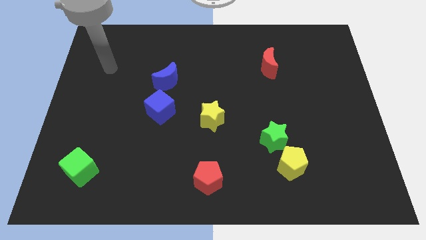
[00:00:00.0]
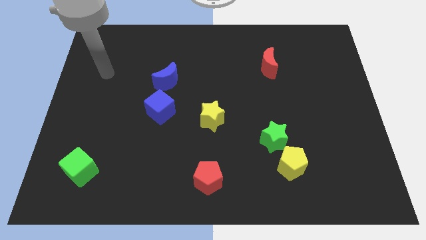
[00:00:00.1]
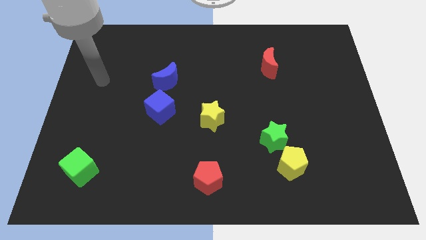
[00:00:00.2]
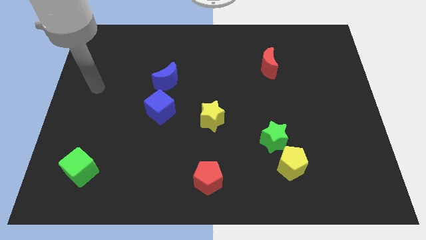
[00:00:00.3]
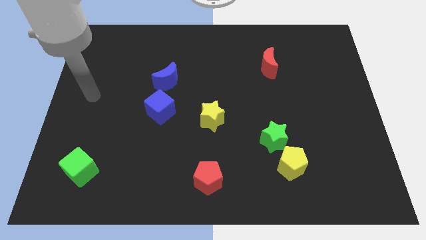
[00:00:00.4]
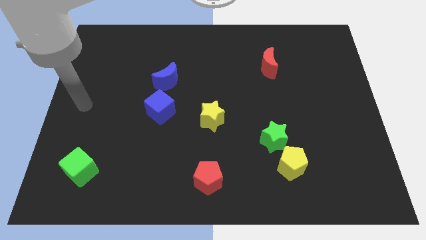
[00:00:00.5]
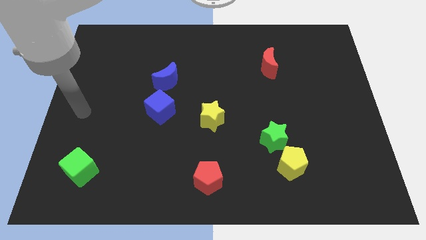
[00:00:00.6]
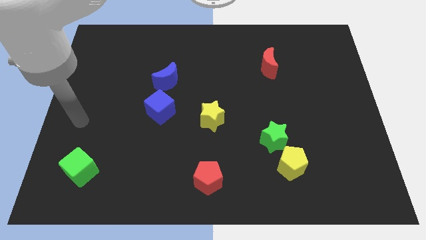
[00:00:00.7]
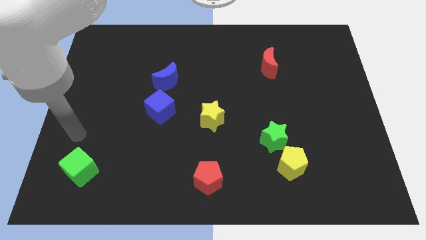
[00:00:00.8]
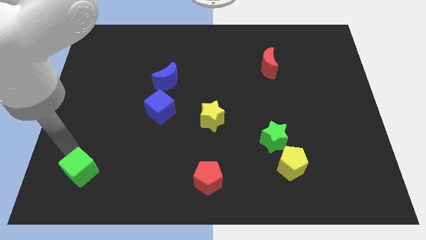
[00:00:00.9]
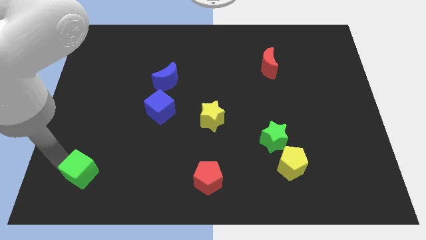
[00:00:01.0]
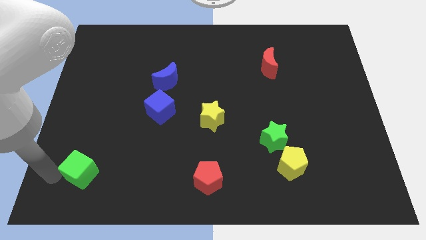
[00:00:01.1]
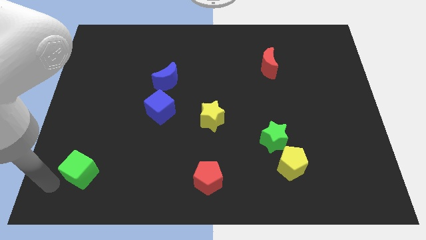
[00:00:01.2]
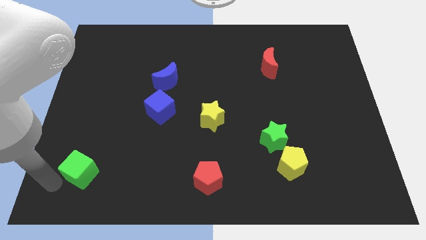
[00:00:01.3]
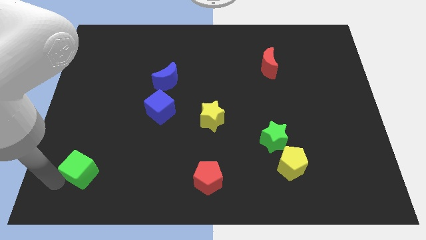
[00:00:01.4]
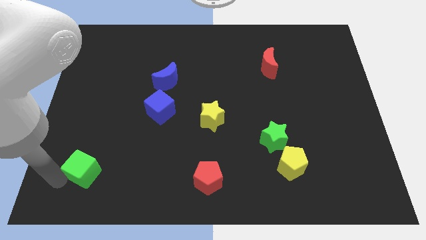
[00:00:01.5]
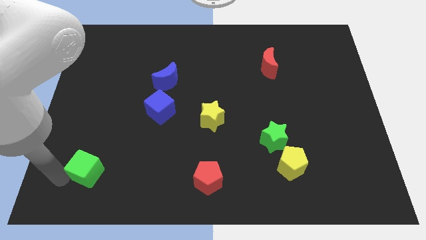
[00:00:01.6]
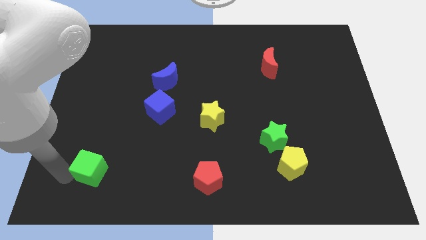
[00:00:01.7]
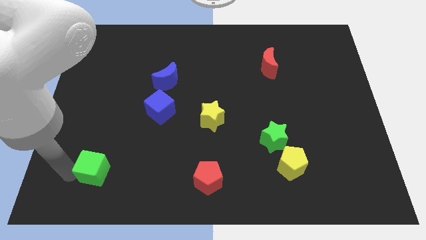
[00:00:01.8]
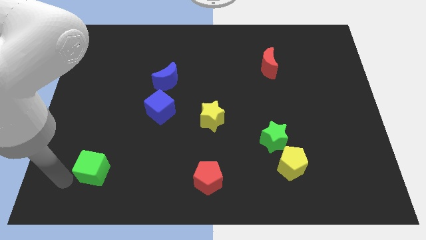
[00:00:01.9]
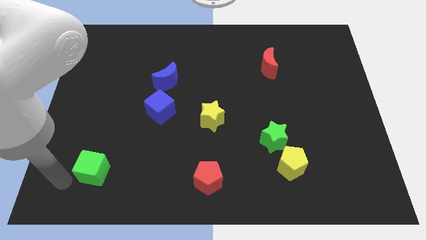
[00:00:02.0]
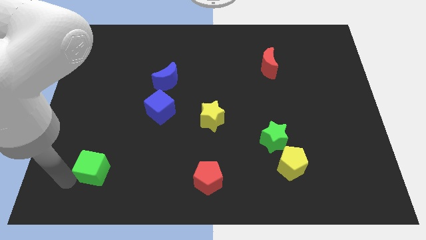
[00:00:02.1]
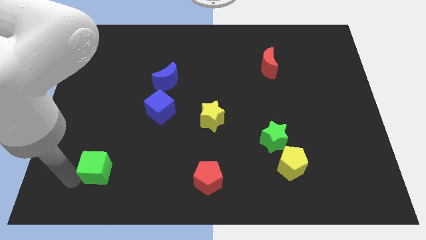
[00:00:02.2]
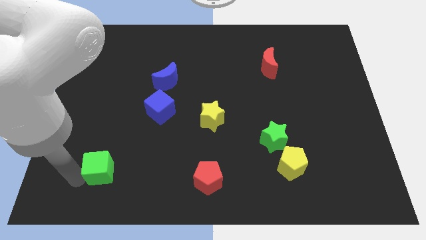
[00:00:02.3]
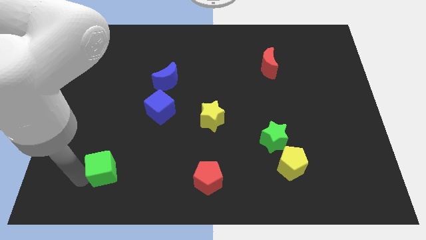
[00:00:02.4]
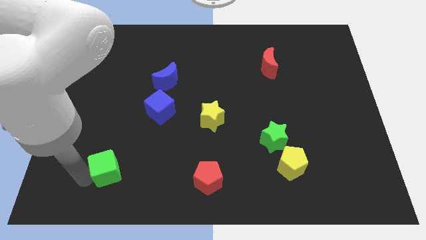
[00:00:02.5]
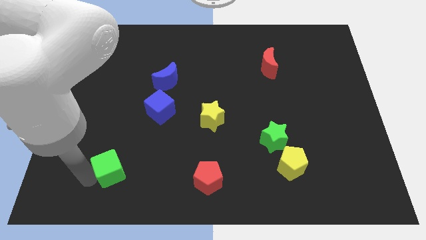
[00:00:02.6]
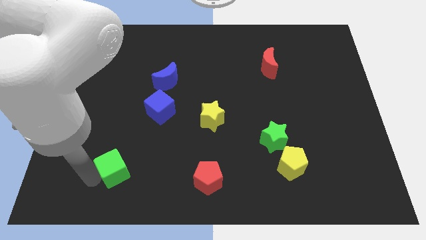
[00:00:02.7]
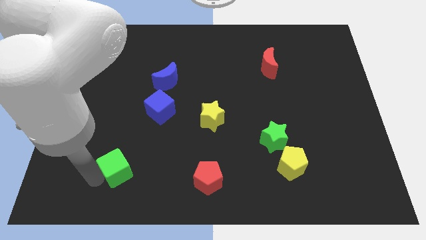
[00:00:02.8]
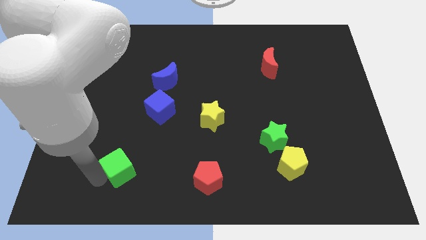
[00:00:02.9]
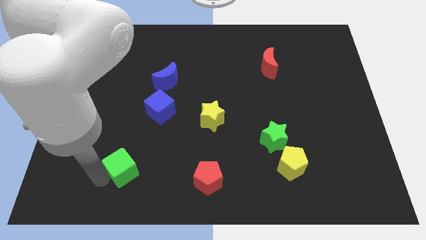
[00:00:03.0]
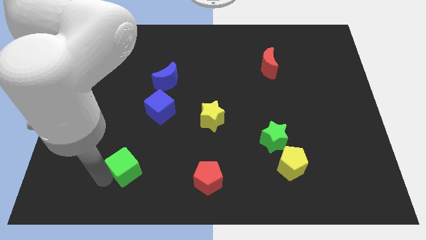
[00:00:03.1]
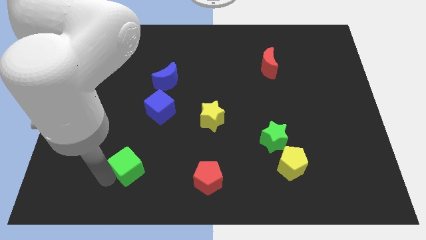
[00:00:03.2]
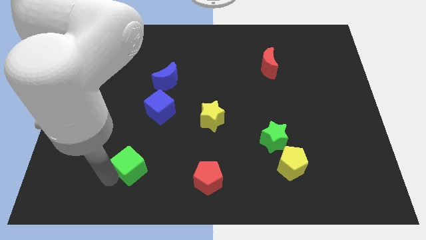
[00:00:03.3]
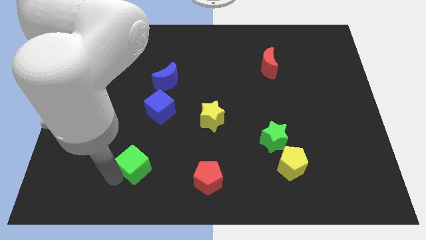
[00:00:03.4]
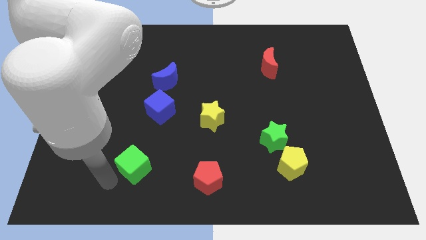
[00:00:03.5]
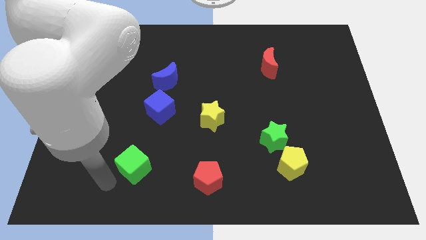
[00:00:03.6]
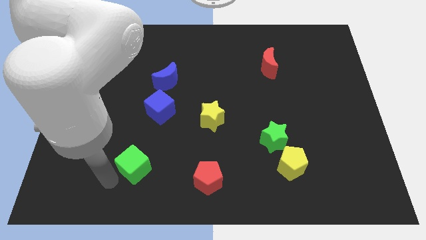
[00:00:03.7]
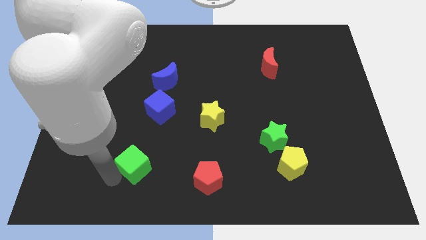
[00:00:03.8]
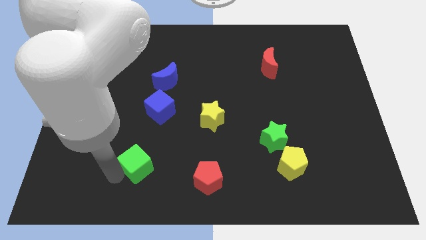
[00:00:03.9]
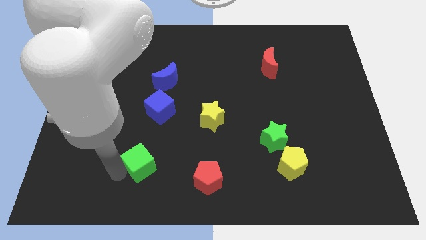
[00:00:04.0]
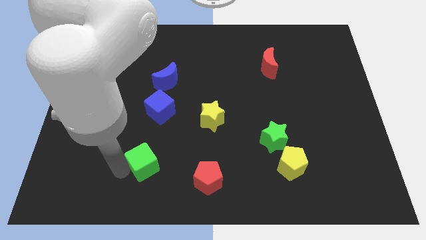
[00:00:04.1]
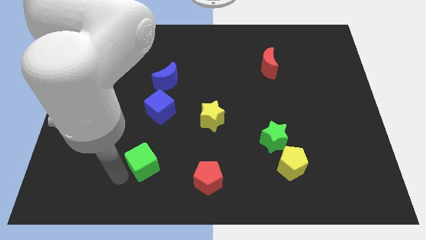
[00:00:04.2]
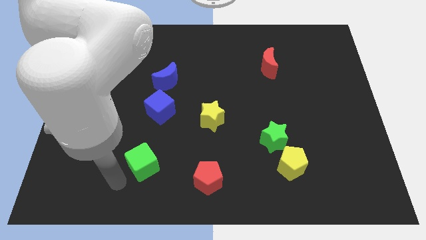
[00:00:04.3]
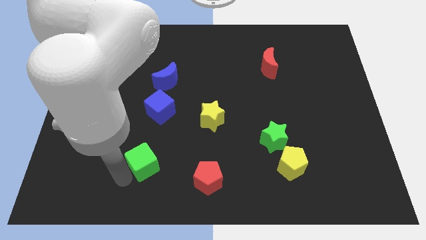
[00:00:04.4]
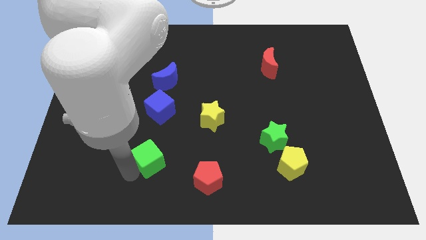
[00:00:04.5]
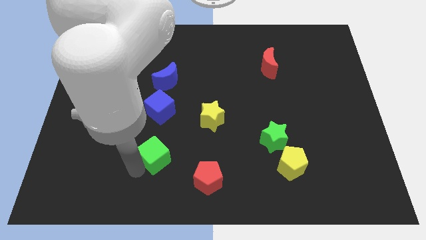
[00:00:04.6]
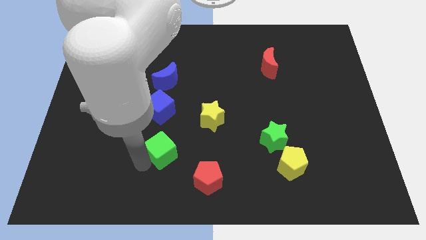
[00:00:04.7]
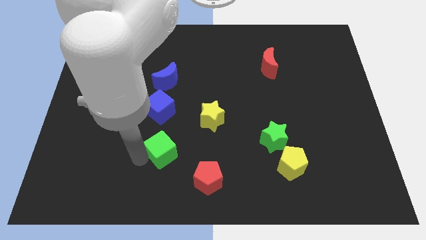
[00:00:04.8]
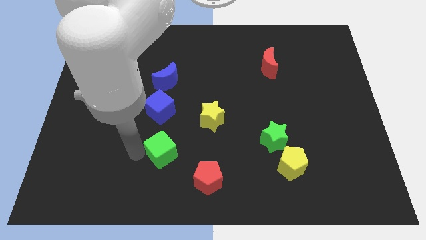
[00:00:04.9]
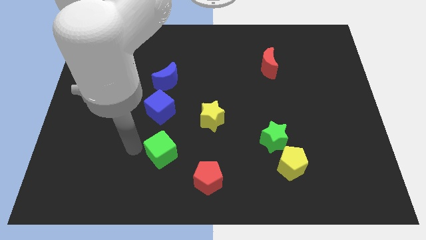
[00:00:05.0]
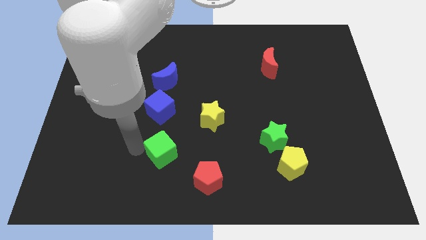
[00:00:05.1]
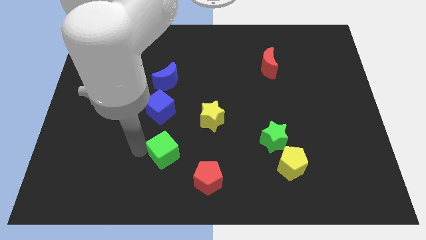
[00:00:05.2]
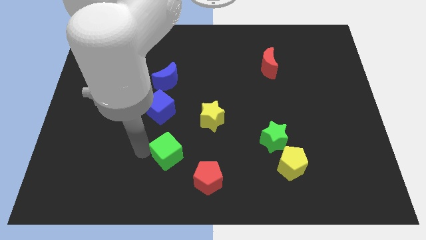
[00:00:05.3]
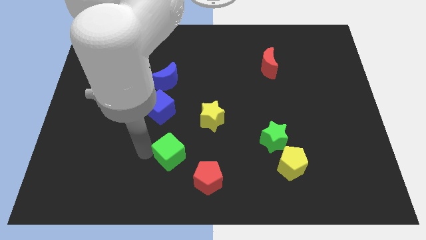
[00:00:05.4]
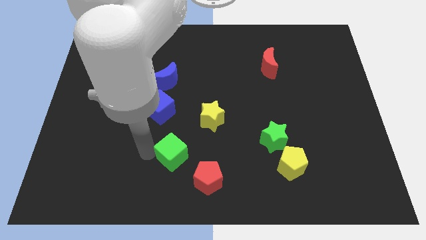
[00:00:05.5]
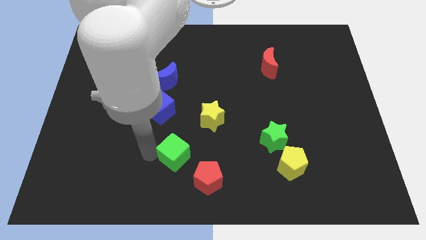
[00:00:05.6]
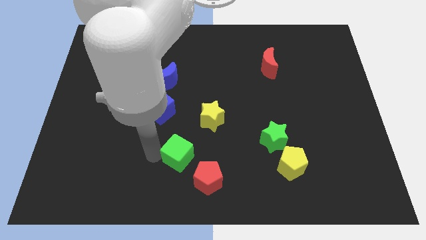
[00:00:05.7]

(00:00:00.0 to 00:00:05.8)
slide the green cube right

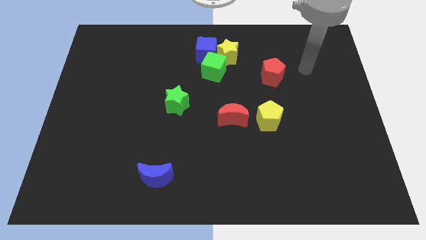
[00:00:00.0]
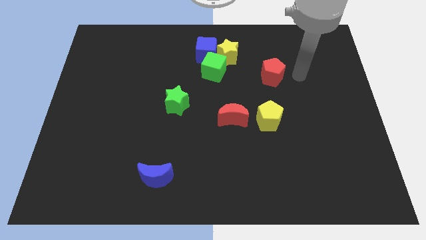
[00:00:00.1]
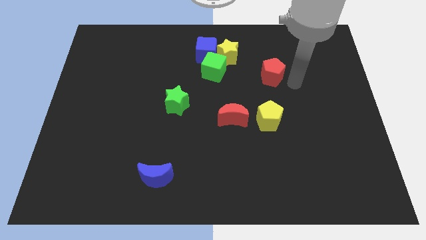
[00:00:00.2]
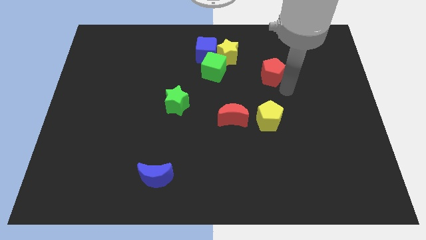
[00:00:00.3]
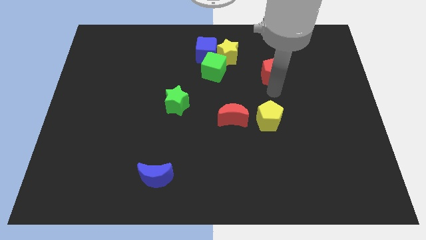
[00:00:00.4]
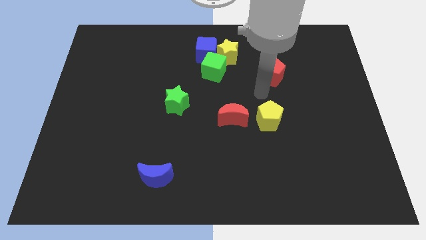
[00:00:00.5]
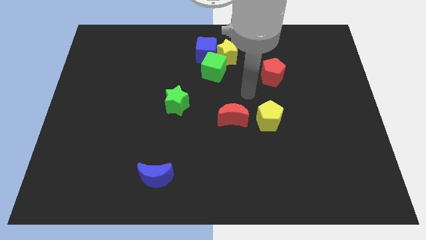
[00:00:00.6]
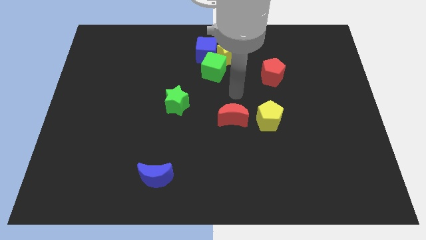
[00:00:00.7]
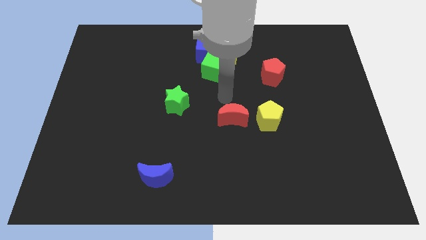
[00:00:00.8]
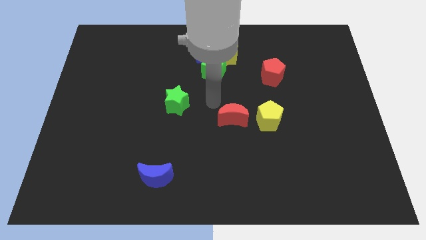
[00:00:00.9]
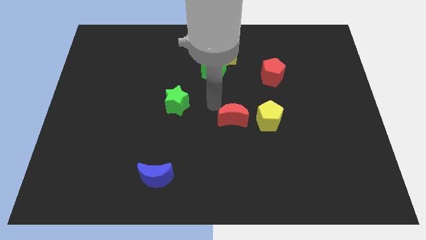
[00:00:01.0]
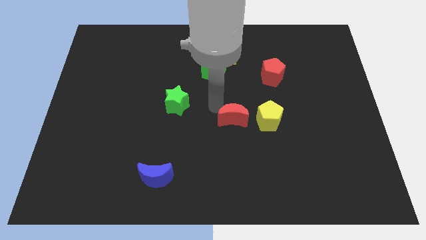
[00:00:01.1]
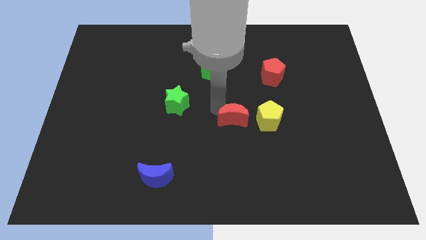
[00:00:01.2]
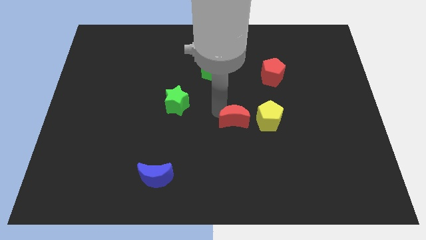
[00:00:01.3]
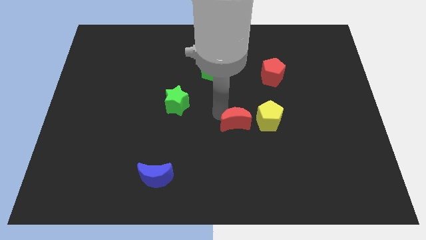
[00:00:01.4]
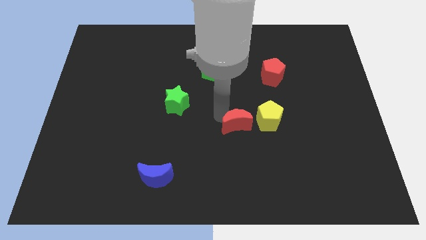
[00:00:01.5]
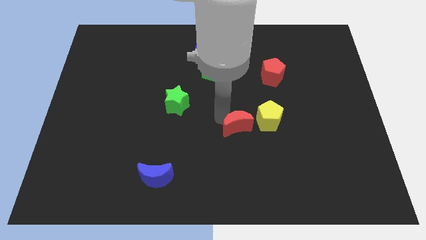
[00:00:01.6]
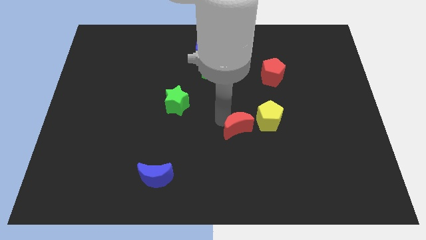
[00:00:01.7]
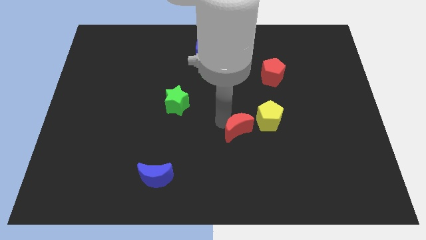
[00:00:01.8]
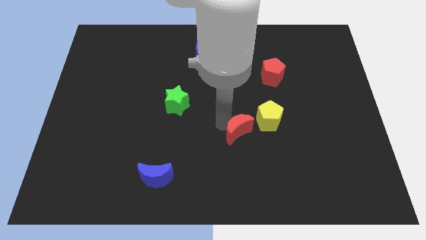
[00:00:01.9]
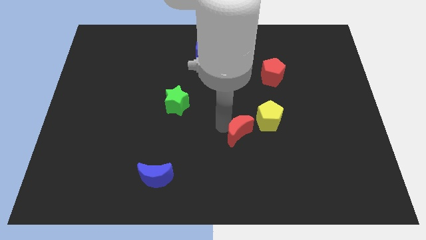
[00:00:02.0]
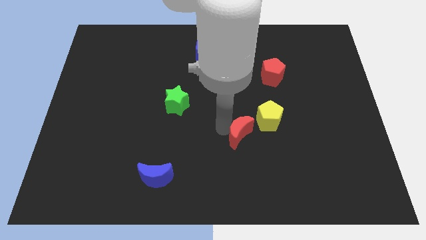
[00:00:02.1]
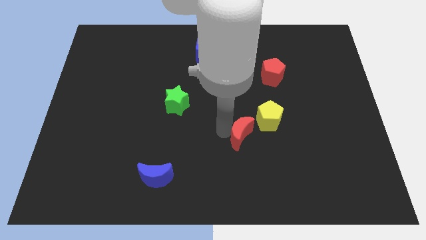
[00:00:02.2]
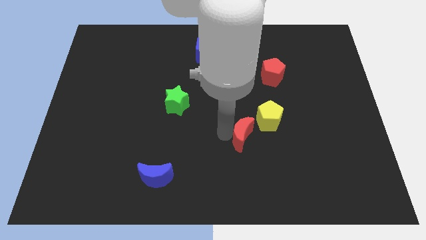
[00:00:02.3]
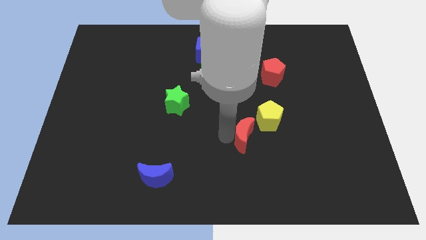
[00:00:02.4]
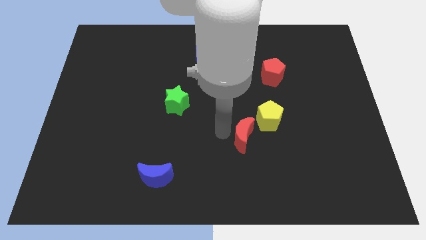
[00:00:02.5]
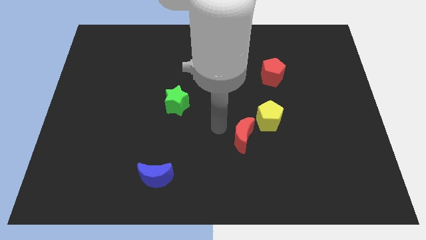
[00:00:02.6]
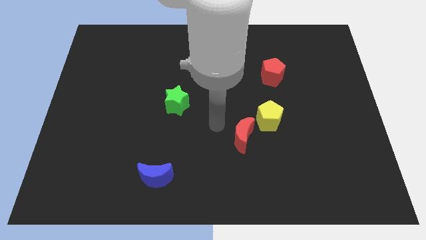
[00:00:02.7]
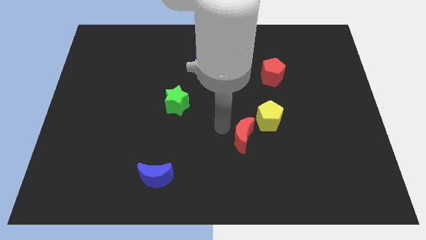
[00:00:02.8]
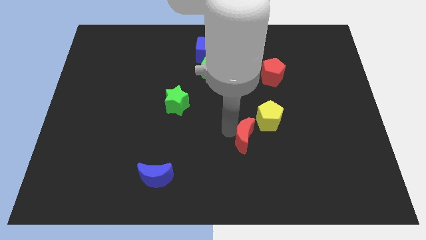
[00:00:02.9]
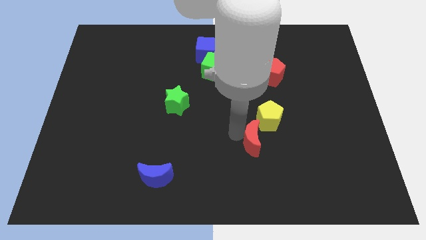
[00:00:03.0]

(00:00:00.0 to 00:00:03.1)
move the red moon somewhat down and to the right diagonally
